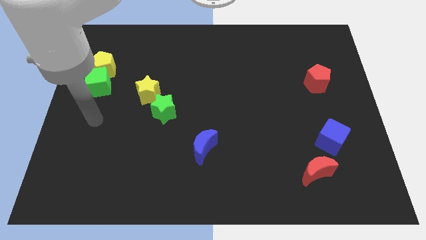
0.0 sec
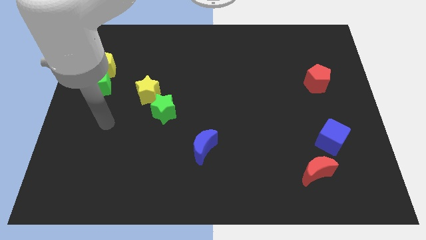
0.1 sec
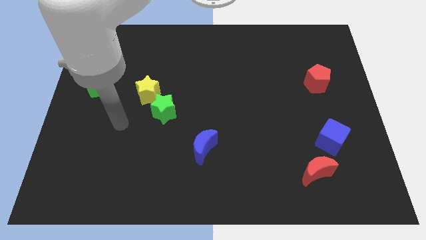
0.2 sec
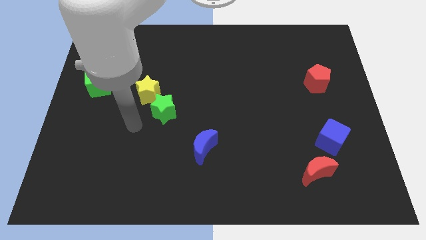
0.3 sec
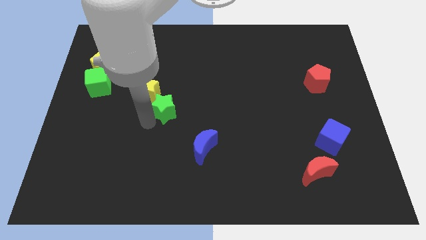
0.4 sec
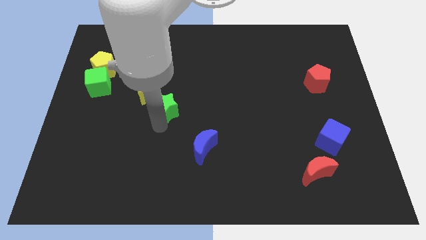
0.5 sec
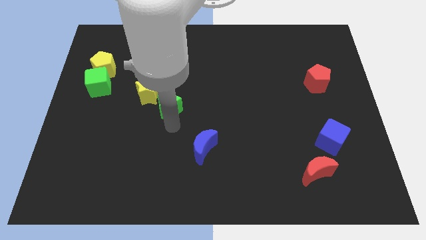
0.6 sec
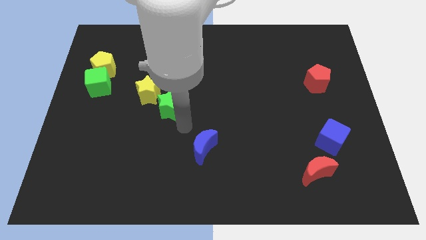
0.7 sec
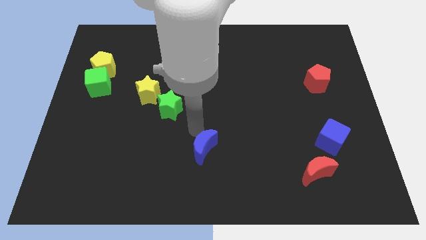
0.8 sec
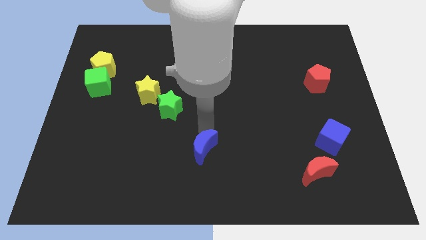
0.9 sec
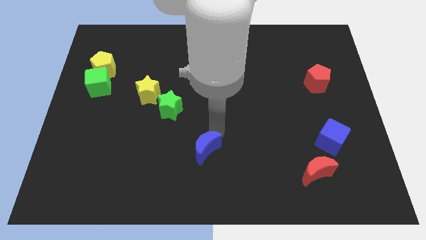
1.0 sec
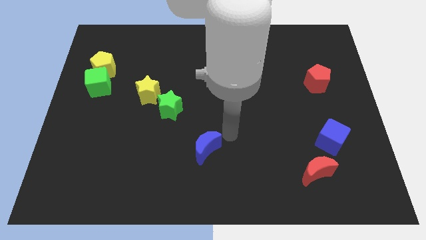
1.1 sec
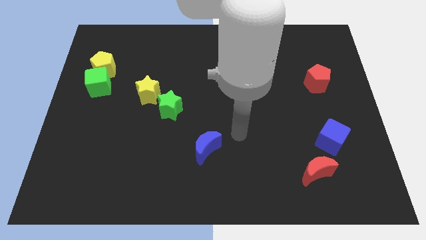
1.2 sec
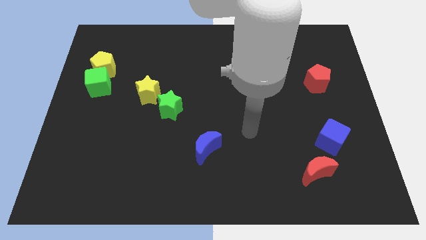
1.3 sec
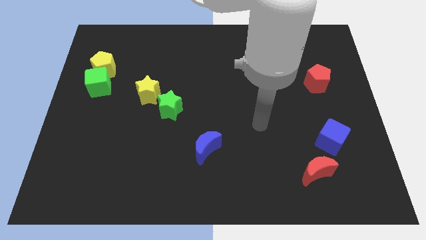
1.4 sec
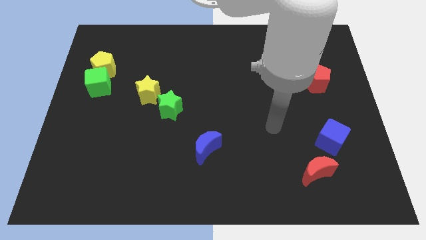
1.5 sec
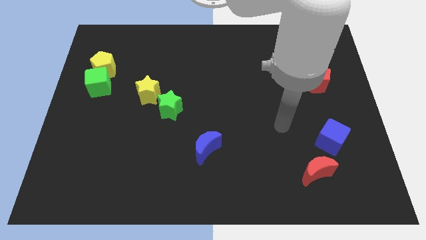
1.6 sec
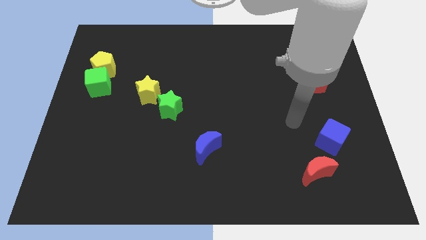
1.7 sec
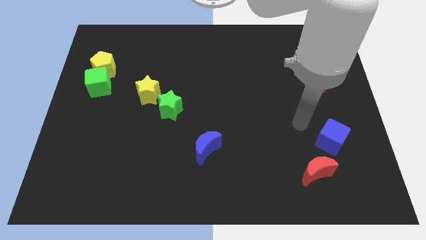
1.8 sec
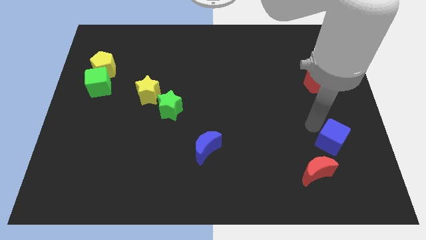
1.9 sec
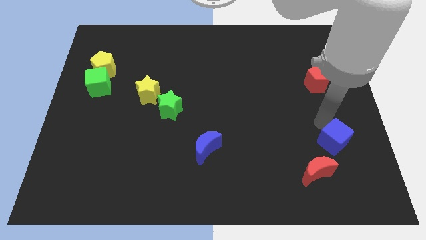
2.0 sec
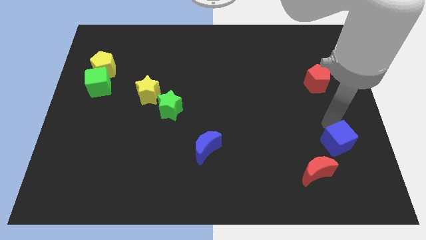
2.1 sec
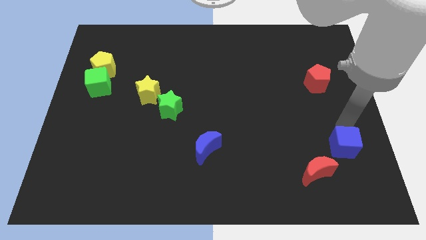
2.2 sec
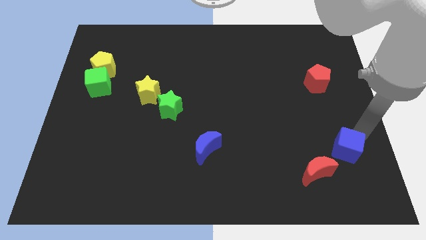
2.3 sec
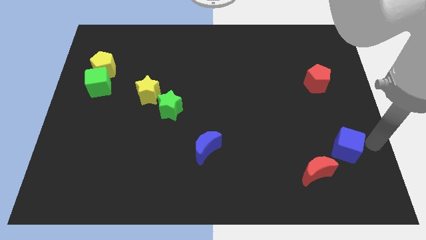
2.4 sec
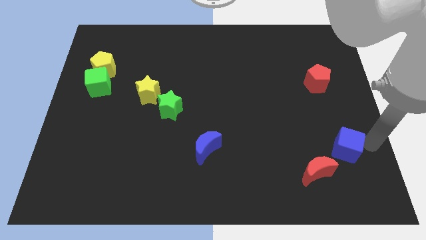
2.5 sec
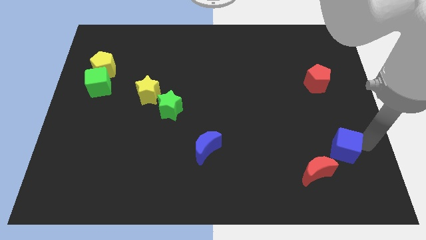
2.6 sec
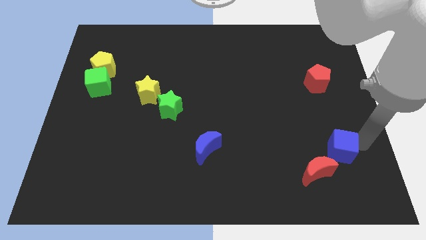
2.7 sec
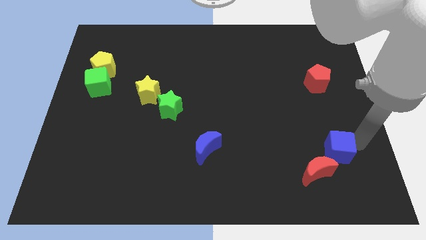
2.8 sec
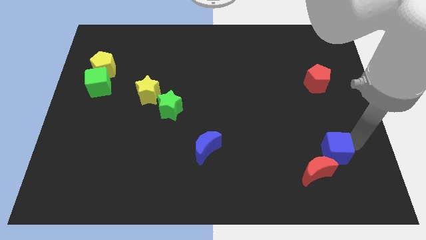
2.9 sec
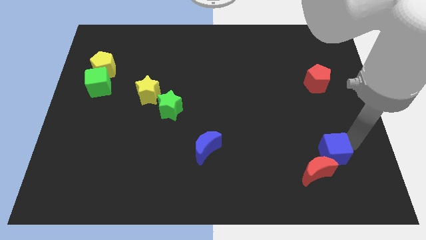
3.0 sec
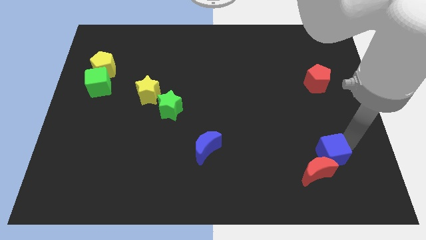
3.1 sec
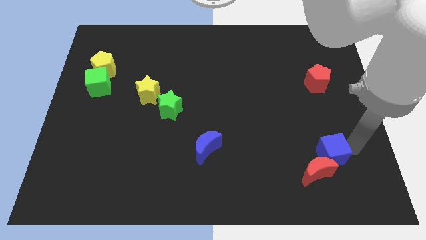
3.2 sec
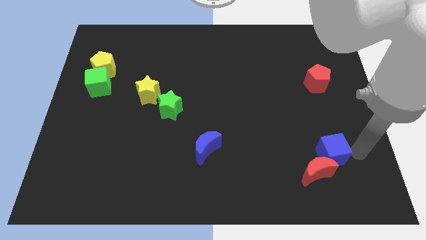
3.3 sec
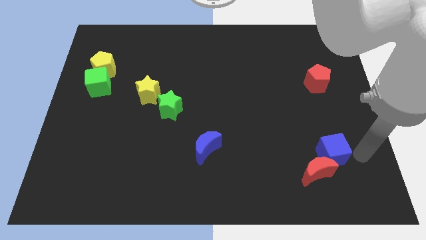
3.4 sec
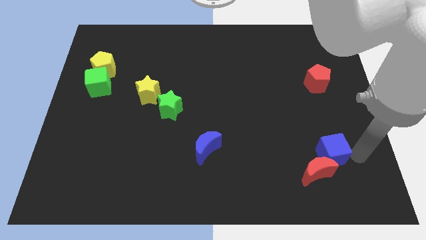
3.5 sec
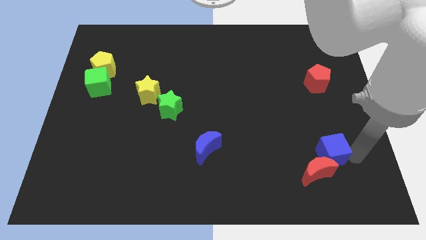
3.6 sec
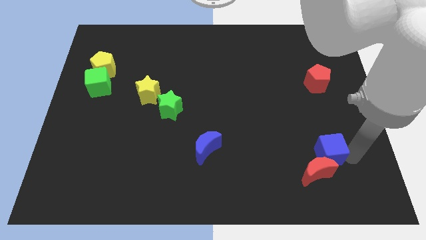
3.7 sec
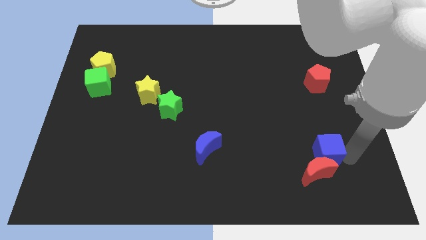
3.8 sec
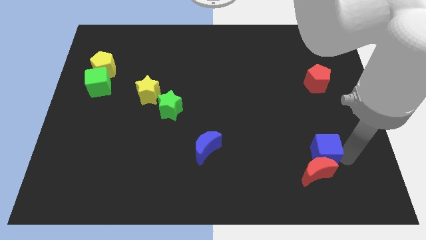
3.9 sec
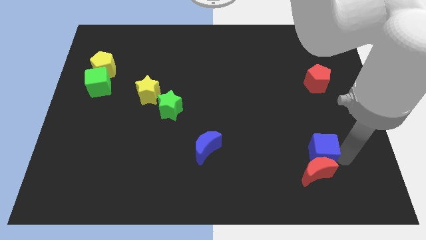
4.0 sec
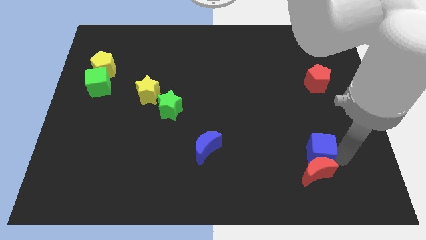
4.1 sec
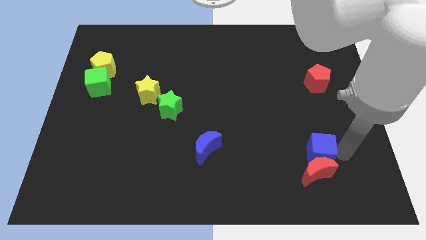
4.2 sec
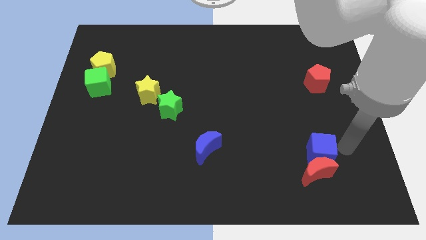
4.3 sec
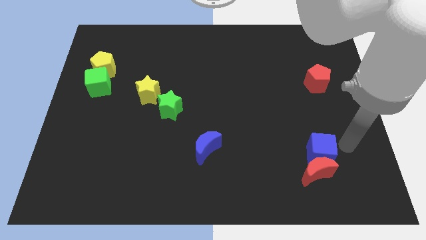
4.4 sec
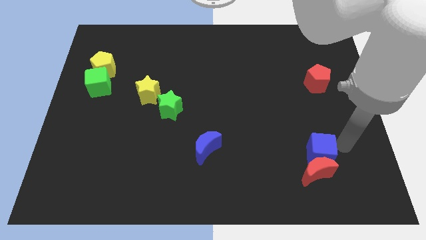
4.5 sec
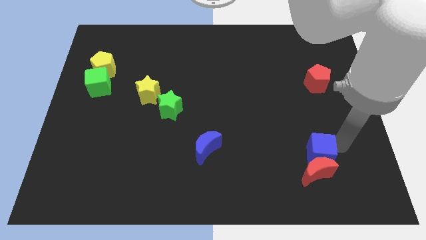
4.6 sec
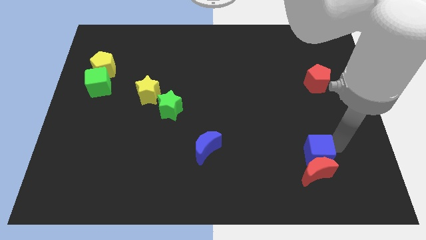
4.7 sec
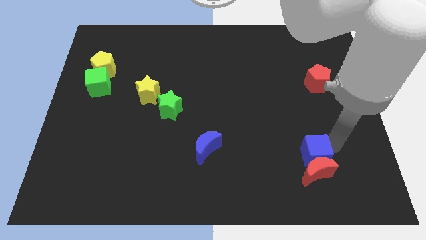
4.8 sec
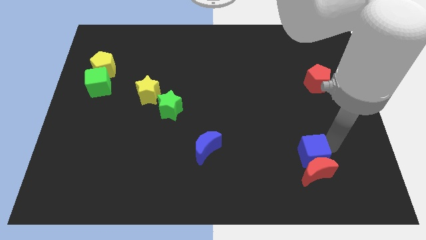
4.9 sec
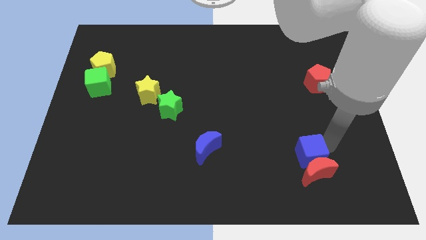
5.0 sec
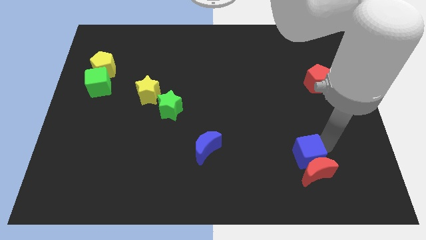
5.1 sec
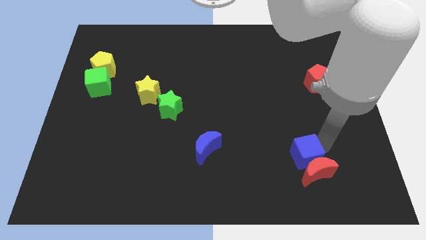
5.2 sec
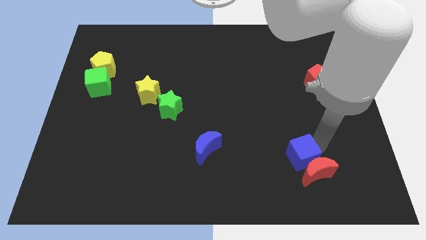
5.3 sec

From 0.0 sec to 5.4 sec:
move the blue cube to the left of the red moon

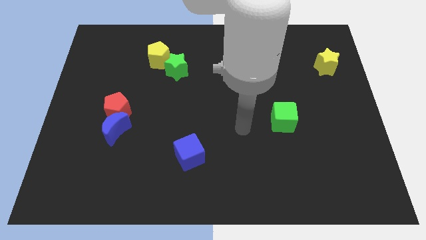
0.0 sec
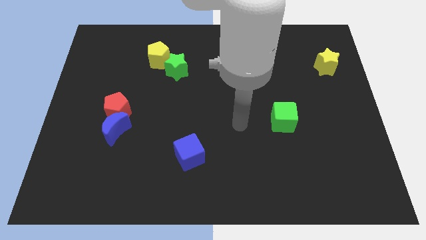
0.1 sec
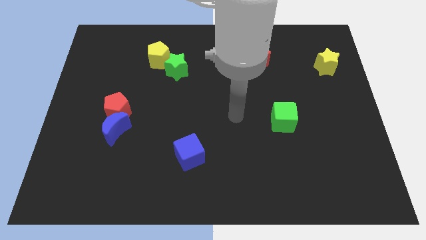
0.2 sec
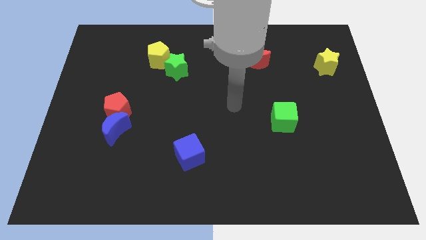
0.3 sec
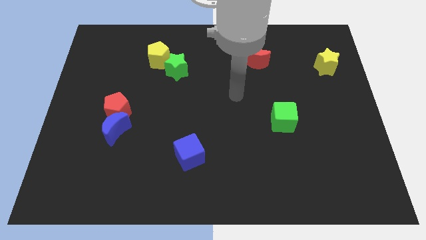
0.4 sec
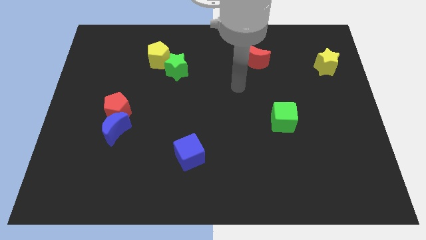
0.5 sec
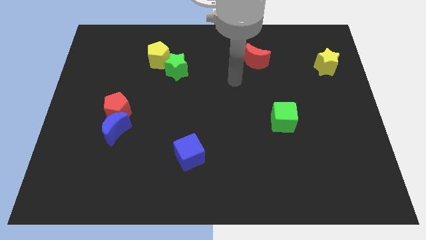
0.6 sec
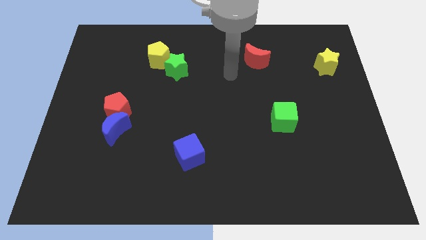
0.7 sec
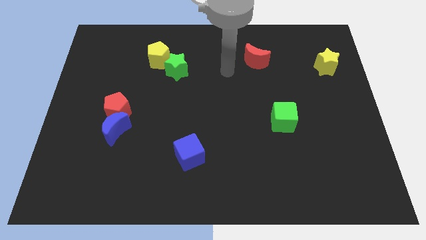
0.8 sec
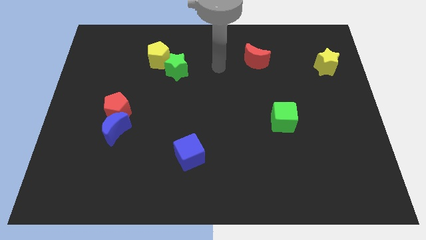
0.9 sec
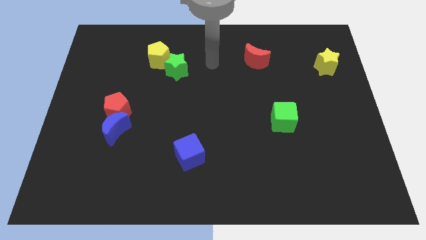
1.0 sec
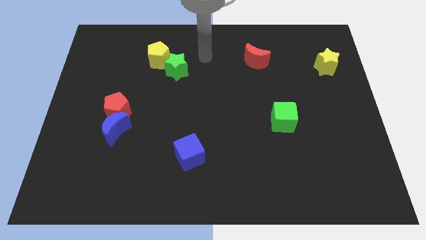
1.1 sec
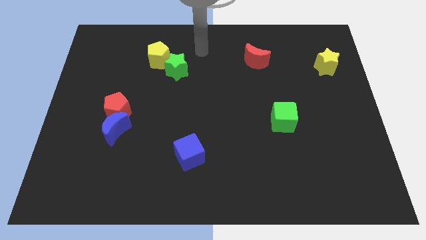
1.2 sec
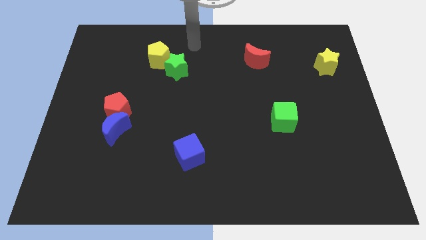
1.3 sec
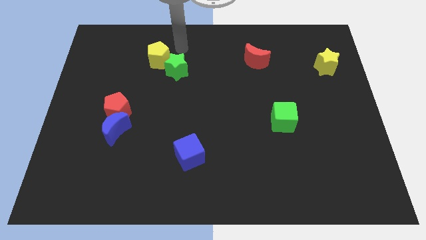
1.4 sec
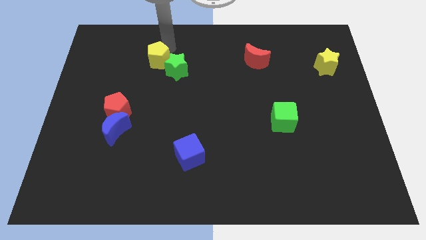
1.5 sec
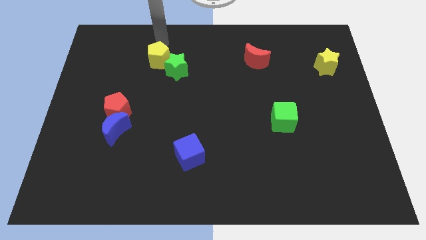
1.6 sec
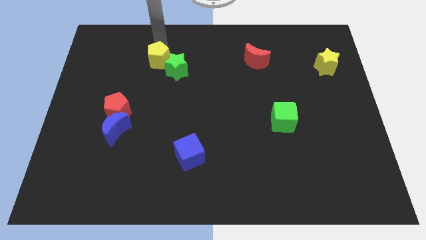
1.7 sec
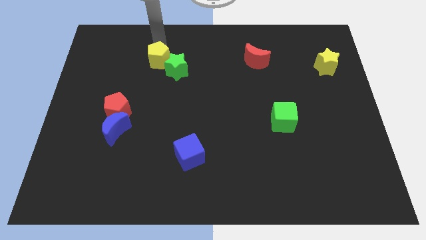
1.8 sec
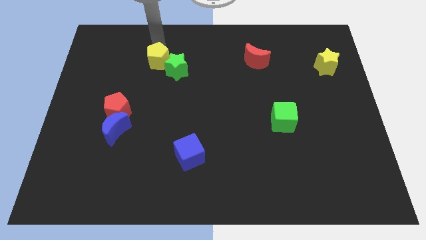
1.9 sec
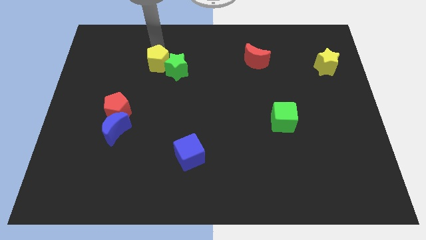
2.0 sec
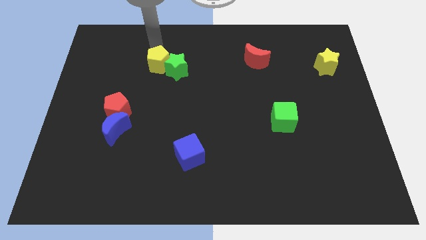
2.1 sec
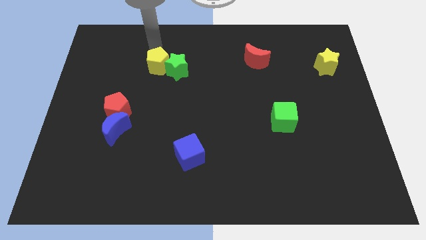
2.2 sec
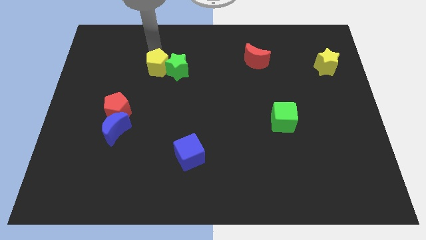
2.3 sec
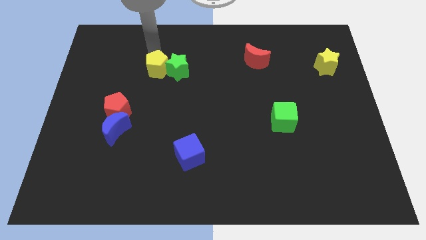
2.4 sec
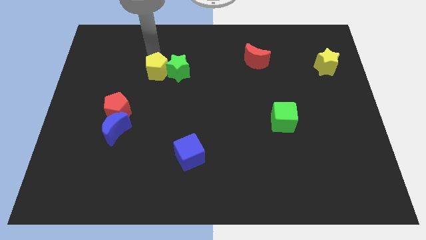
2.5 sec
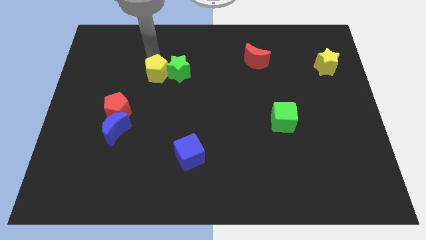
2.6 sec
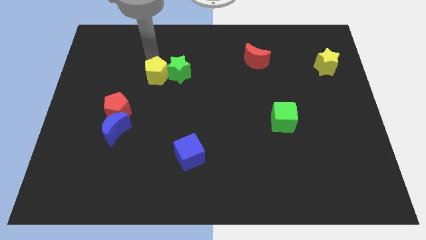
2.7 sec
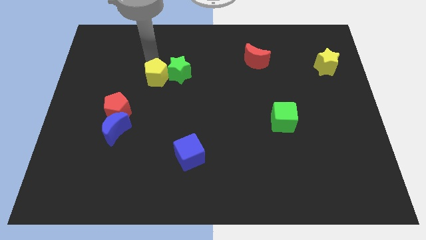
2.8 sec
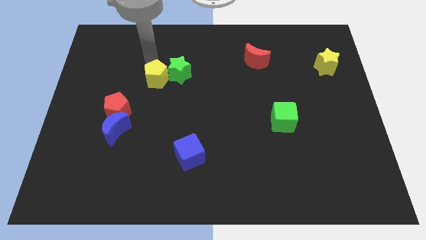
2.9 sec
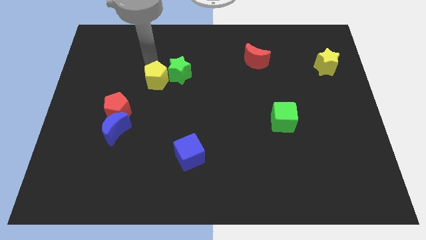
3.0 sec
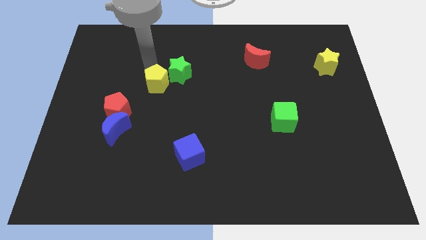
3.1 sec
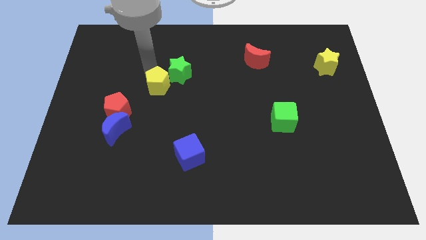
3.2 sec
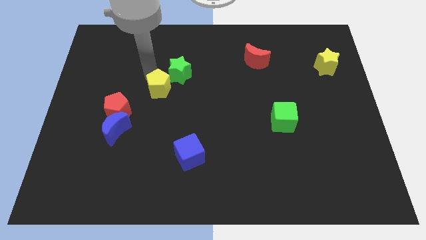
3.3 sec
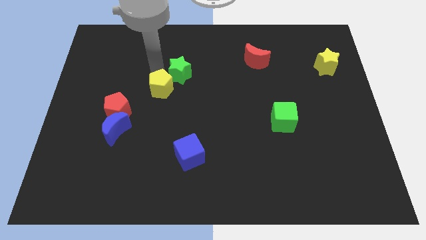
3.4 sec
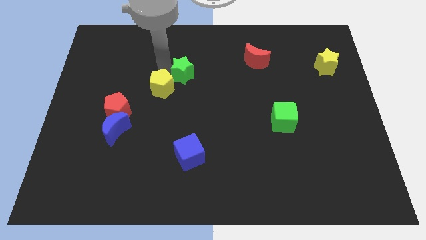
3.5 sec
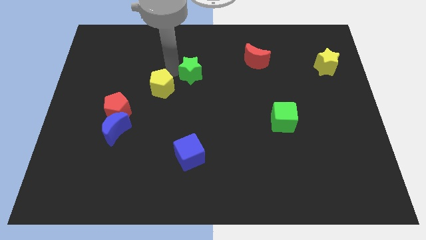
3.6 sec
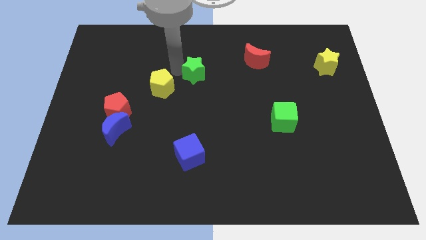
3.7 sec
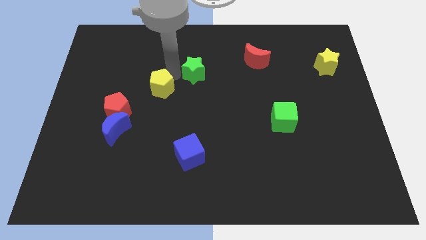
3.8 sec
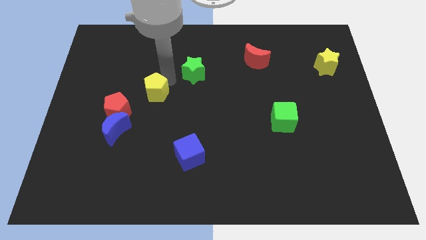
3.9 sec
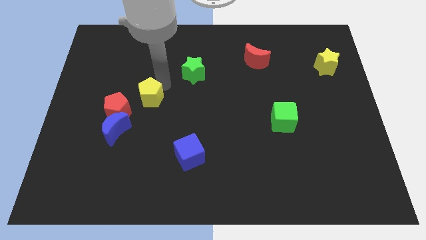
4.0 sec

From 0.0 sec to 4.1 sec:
move the yellow pentagon to the top right side of the blue moon
